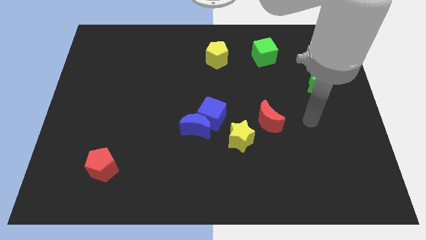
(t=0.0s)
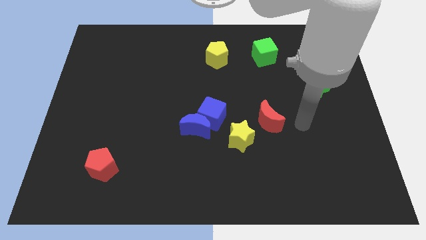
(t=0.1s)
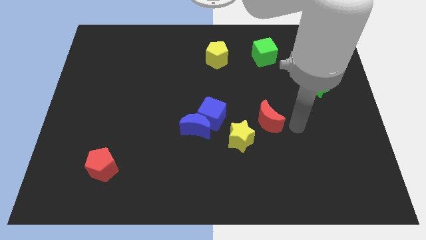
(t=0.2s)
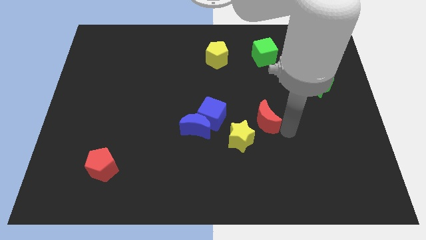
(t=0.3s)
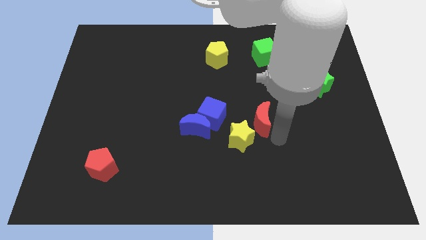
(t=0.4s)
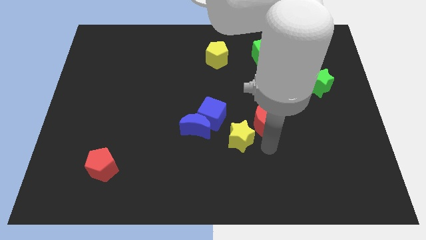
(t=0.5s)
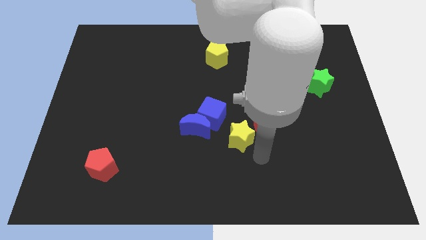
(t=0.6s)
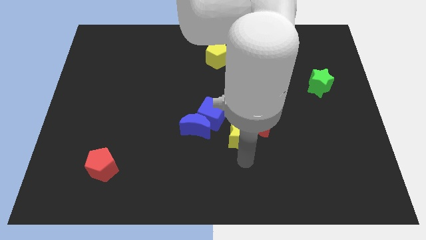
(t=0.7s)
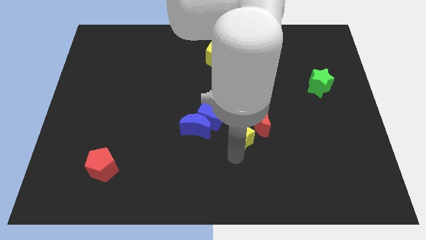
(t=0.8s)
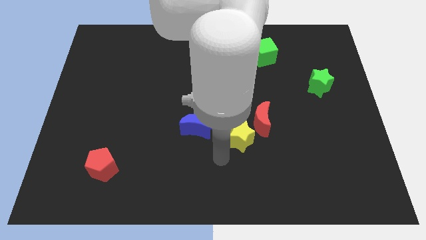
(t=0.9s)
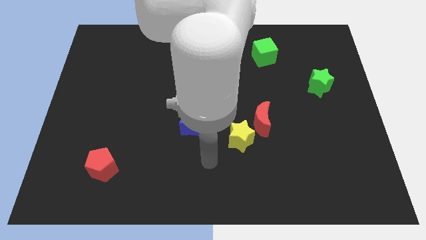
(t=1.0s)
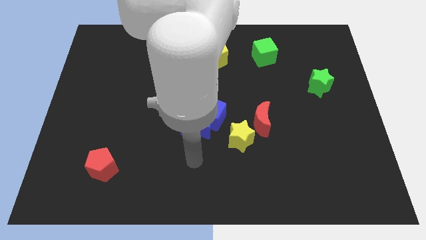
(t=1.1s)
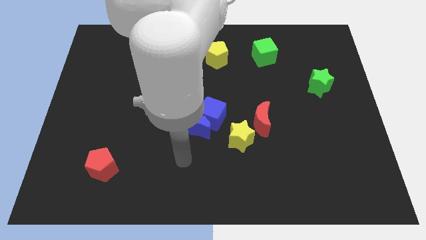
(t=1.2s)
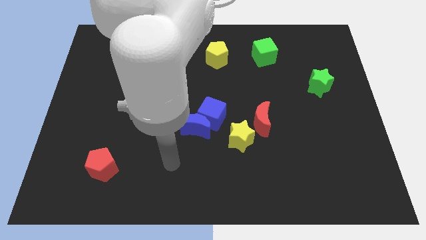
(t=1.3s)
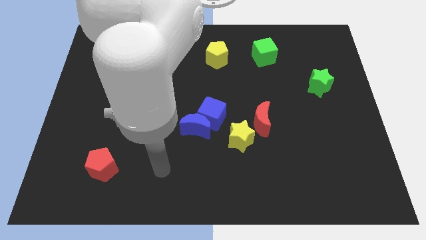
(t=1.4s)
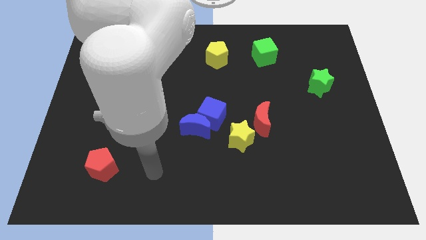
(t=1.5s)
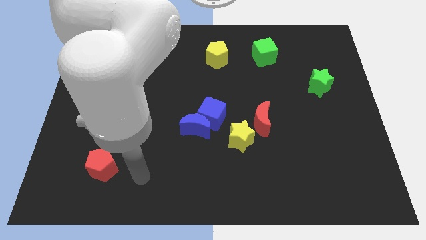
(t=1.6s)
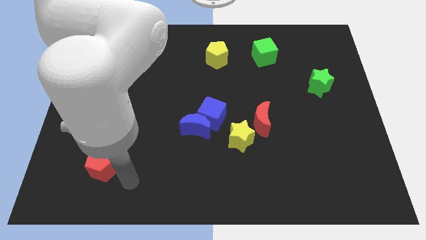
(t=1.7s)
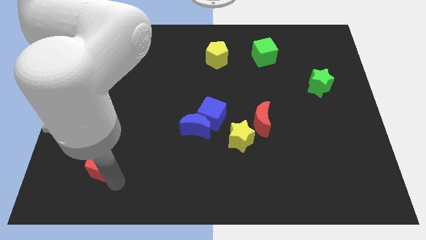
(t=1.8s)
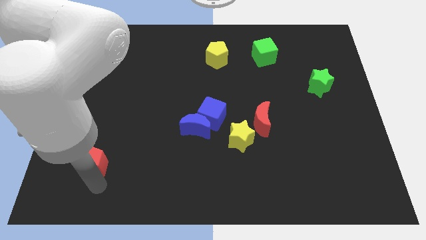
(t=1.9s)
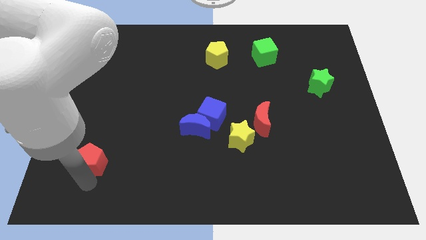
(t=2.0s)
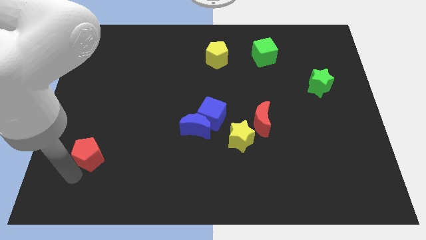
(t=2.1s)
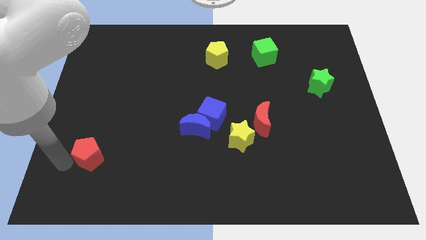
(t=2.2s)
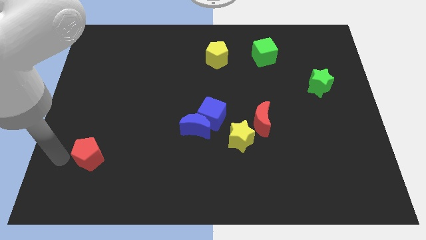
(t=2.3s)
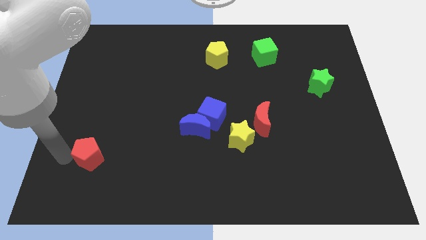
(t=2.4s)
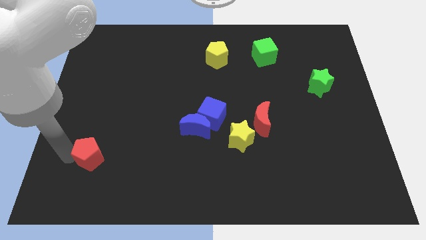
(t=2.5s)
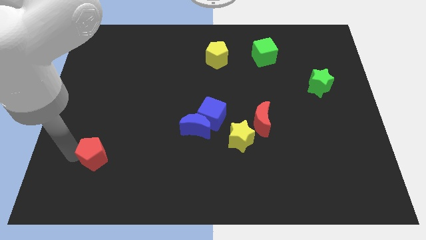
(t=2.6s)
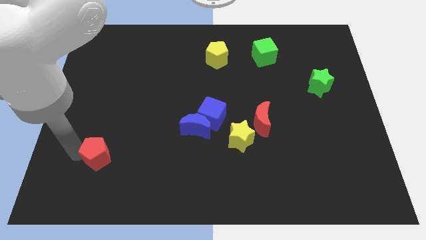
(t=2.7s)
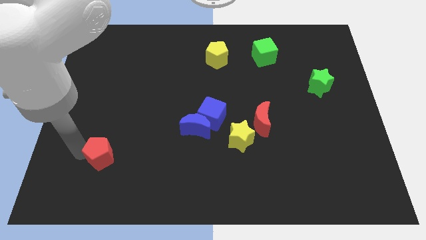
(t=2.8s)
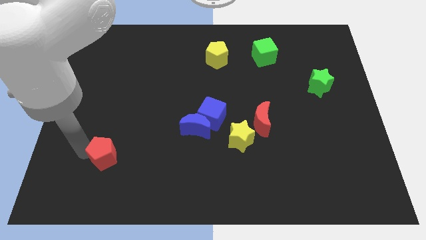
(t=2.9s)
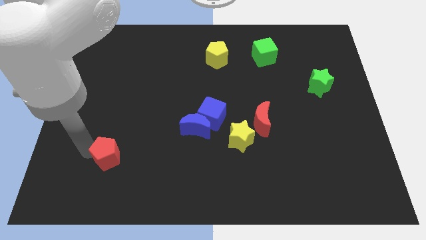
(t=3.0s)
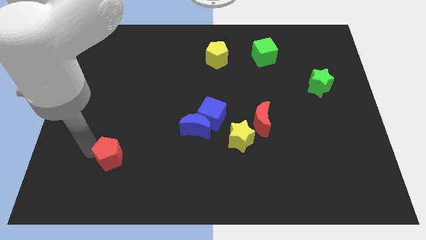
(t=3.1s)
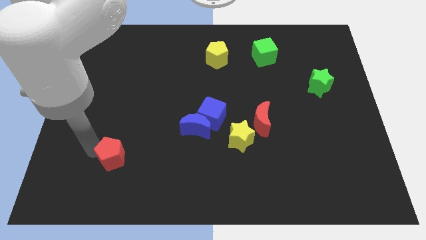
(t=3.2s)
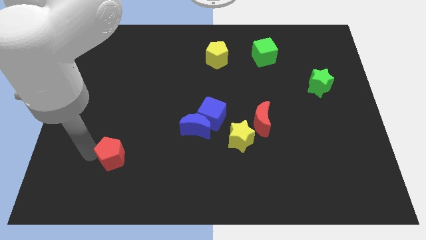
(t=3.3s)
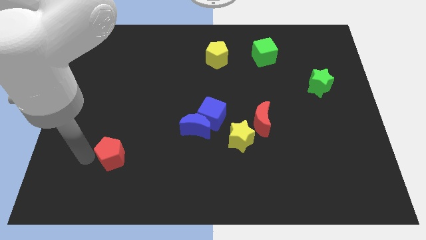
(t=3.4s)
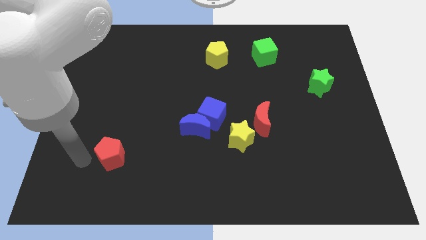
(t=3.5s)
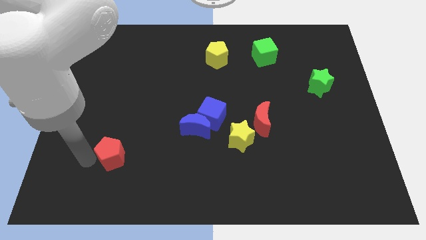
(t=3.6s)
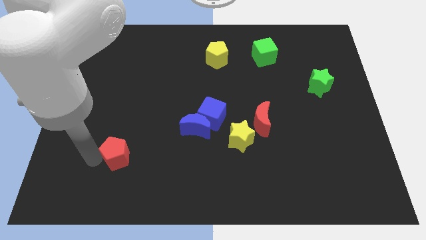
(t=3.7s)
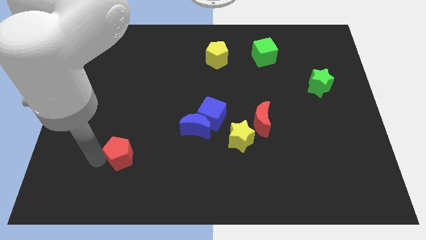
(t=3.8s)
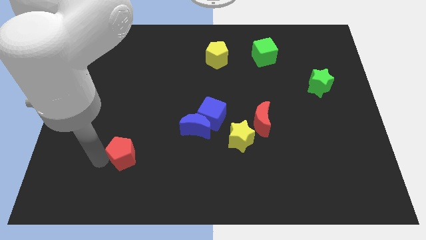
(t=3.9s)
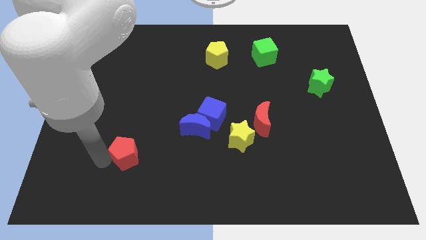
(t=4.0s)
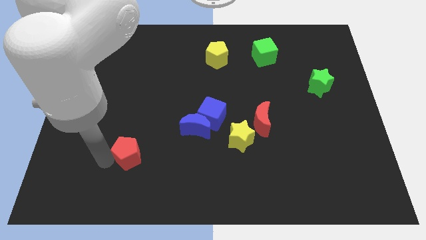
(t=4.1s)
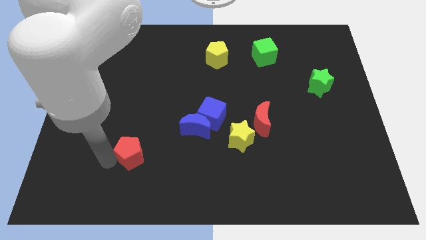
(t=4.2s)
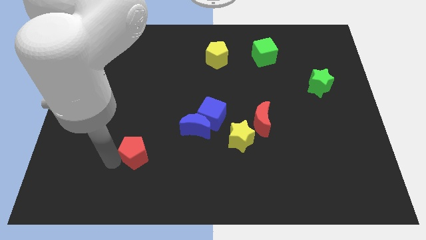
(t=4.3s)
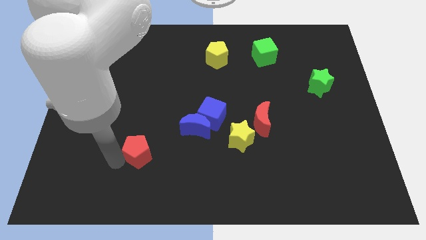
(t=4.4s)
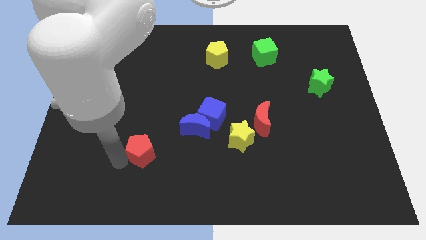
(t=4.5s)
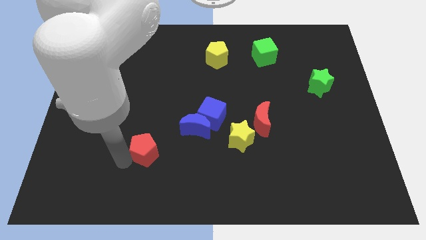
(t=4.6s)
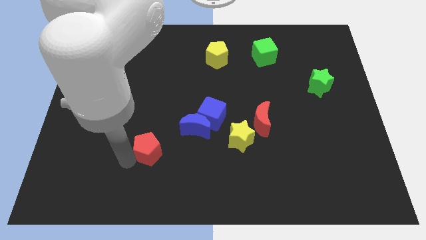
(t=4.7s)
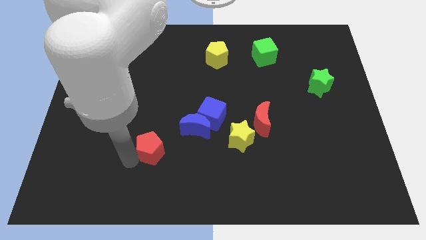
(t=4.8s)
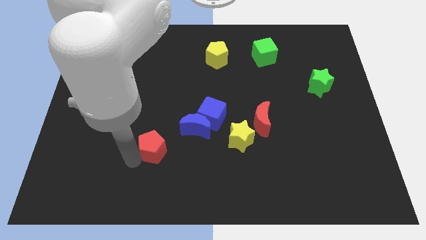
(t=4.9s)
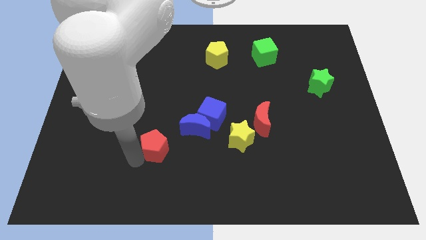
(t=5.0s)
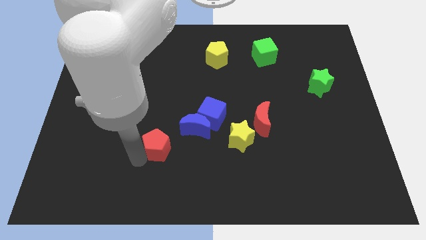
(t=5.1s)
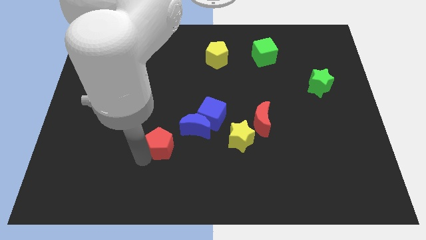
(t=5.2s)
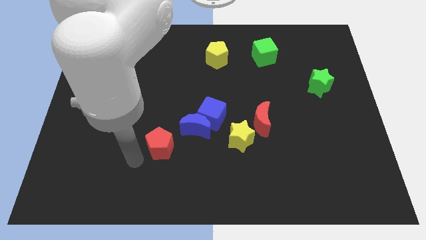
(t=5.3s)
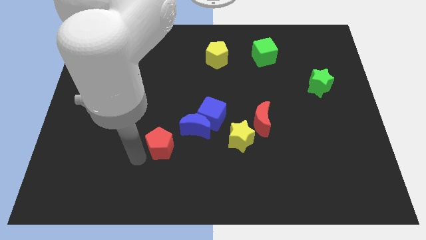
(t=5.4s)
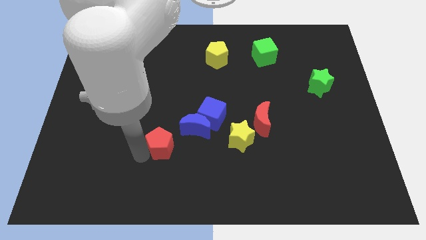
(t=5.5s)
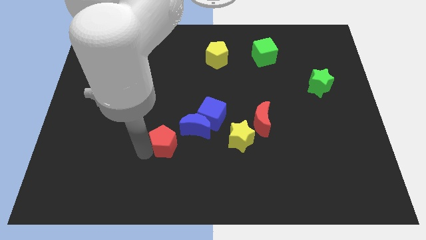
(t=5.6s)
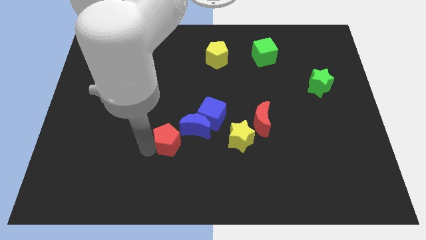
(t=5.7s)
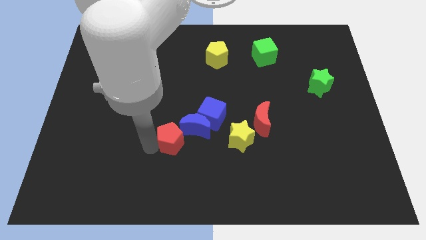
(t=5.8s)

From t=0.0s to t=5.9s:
put the red pentagon next to the blue moon

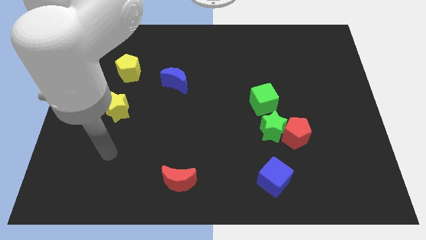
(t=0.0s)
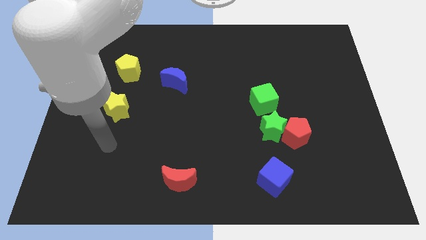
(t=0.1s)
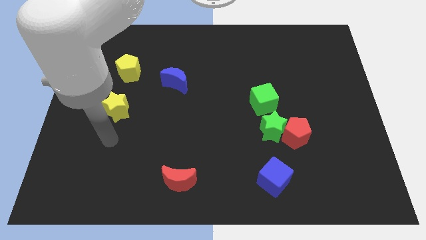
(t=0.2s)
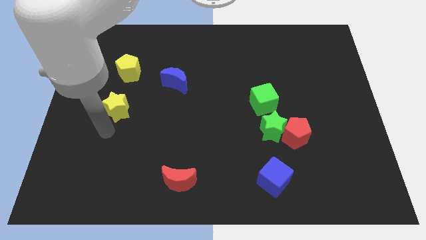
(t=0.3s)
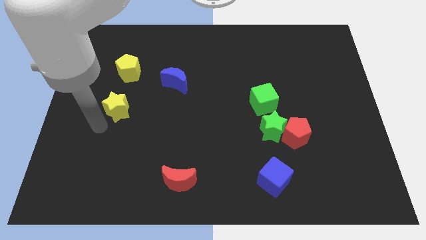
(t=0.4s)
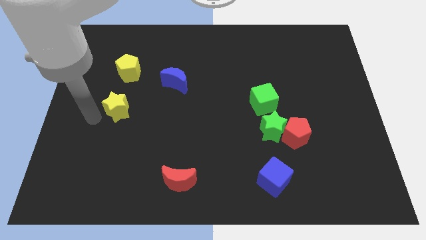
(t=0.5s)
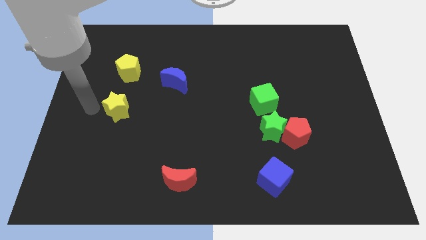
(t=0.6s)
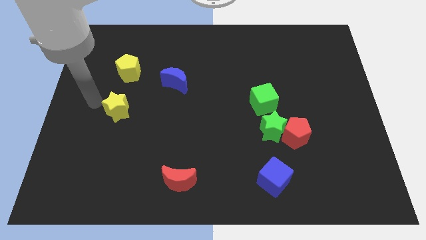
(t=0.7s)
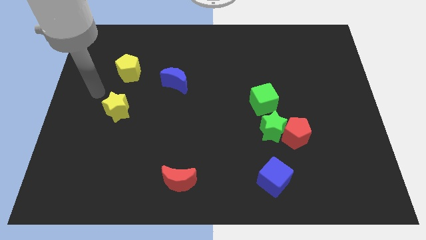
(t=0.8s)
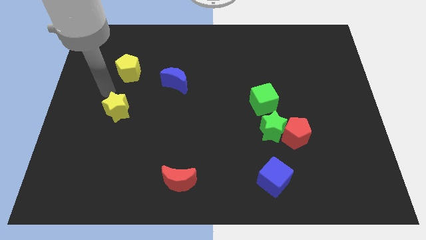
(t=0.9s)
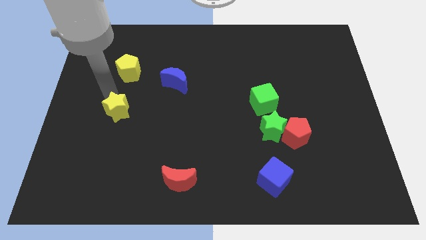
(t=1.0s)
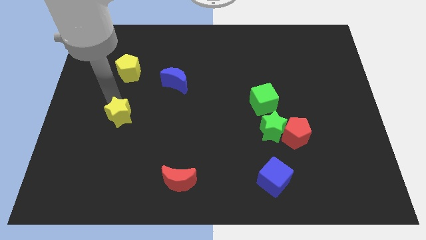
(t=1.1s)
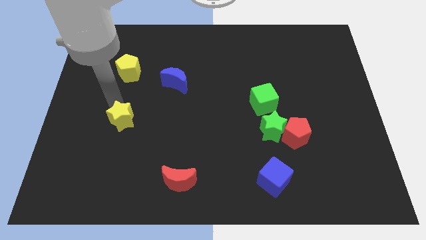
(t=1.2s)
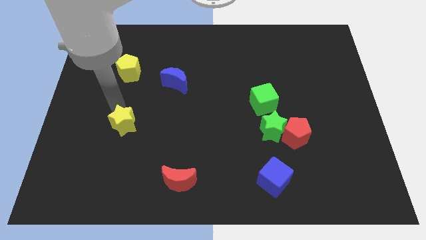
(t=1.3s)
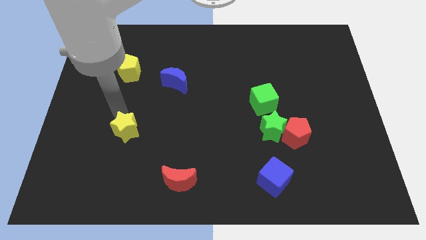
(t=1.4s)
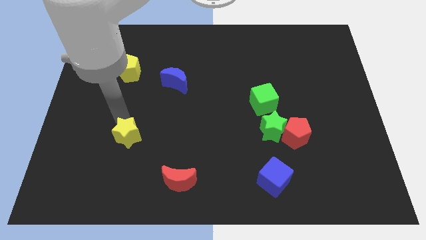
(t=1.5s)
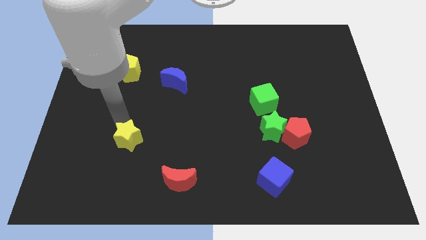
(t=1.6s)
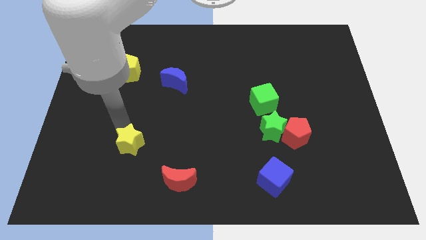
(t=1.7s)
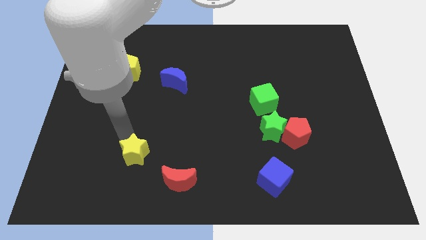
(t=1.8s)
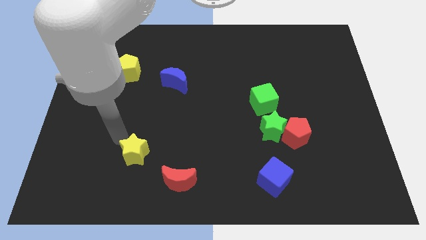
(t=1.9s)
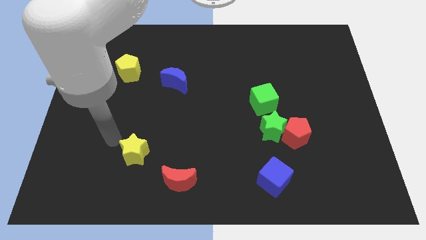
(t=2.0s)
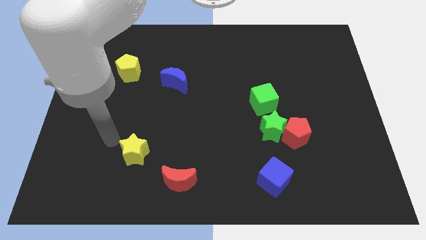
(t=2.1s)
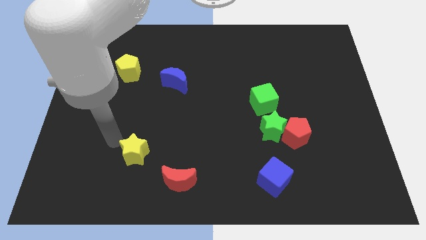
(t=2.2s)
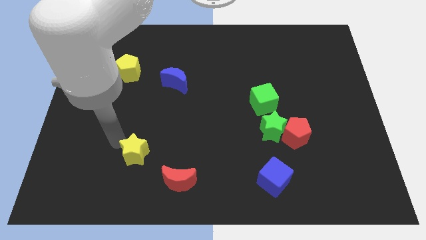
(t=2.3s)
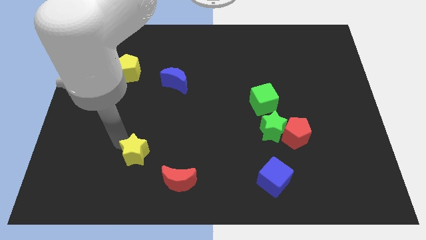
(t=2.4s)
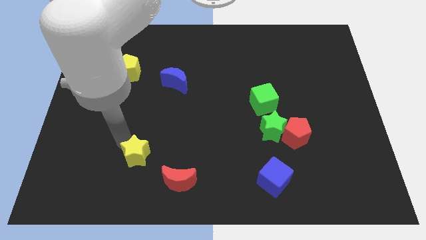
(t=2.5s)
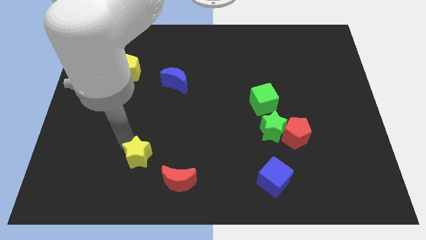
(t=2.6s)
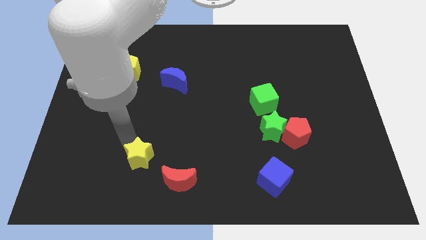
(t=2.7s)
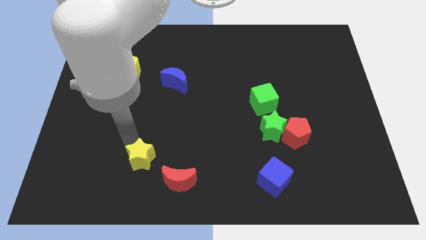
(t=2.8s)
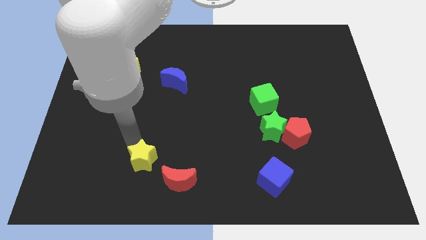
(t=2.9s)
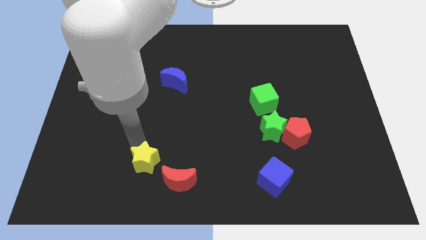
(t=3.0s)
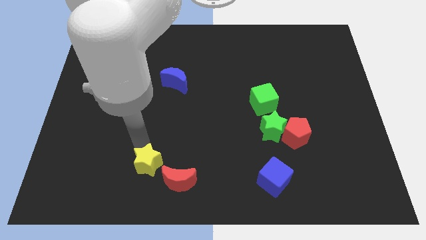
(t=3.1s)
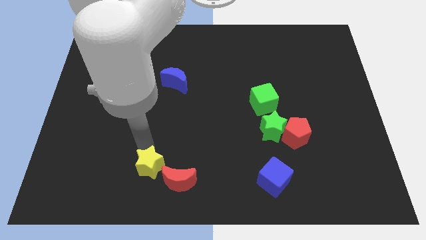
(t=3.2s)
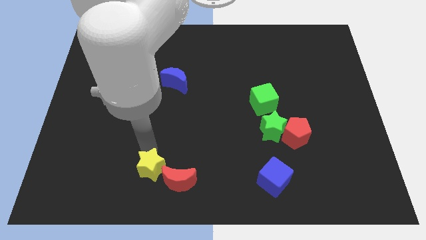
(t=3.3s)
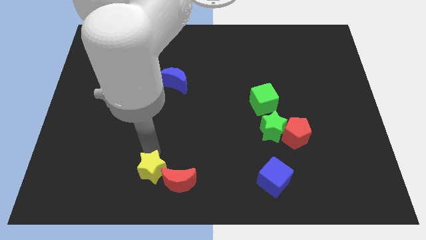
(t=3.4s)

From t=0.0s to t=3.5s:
put the yellow star towards the red moon
